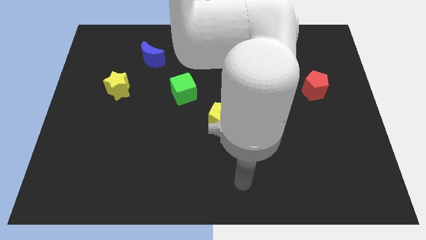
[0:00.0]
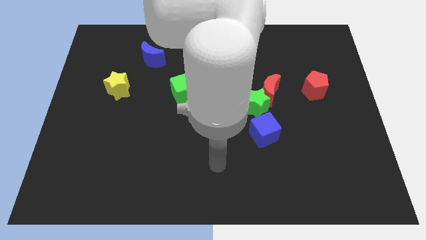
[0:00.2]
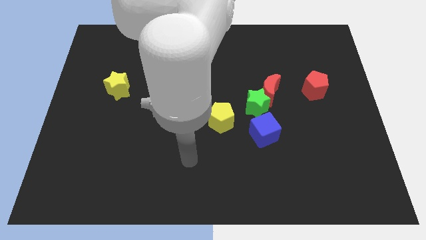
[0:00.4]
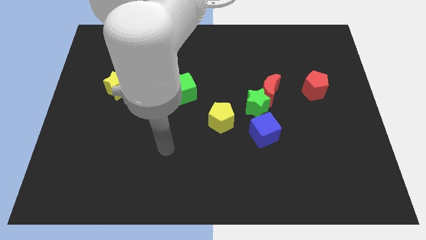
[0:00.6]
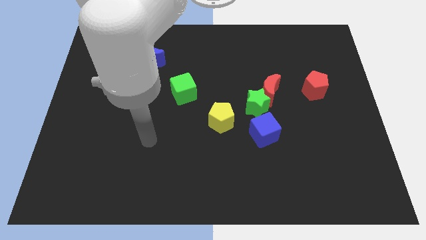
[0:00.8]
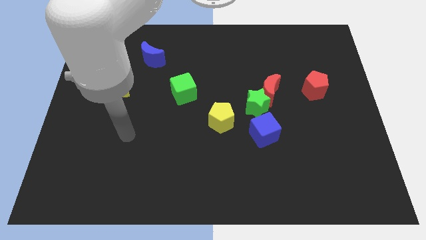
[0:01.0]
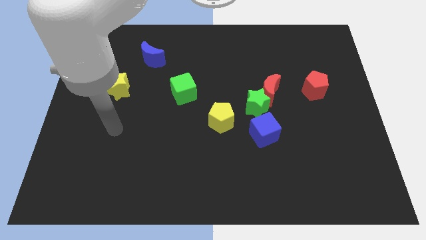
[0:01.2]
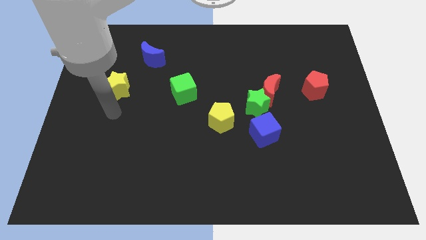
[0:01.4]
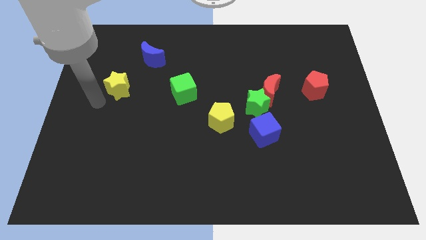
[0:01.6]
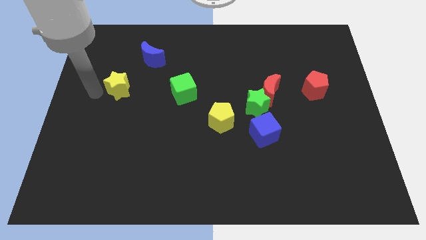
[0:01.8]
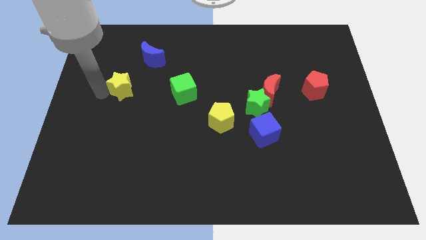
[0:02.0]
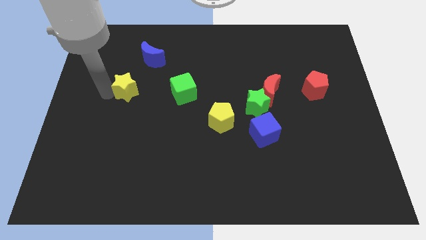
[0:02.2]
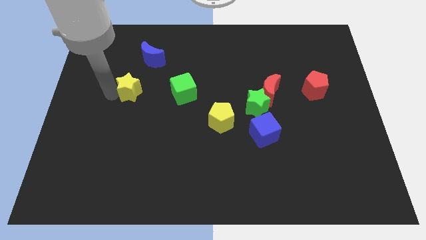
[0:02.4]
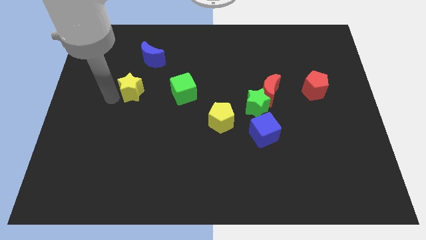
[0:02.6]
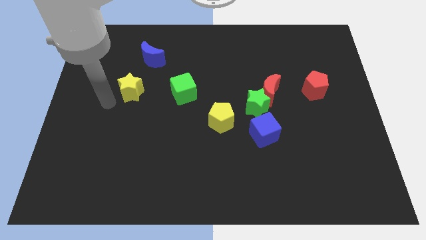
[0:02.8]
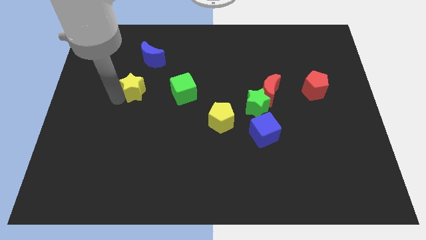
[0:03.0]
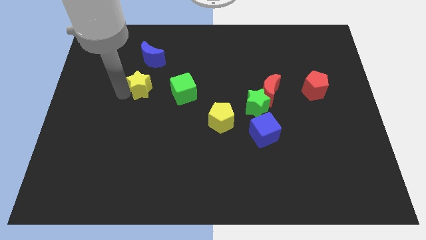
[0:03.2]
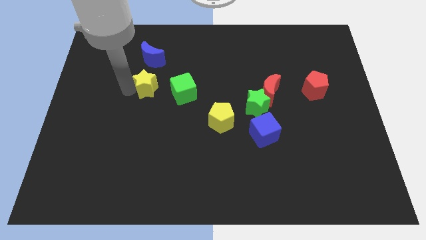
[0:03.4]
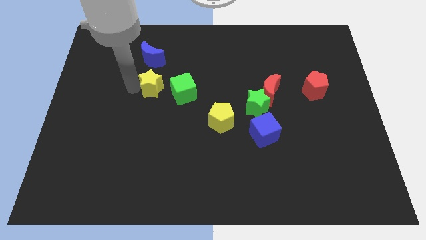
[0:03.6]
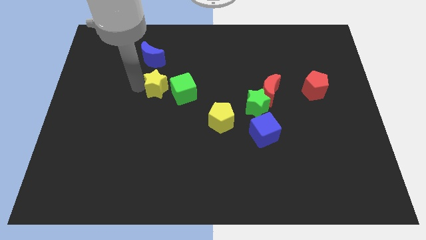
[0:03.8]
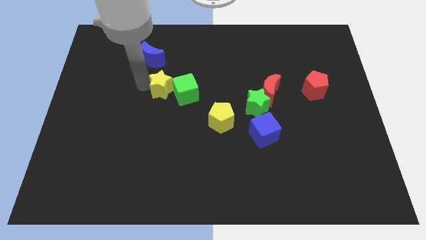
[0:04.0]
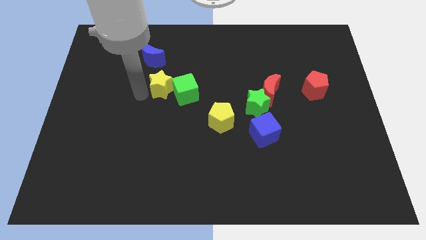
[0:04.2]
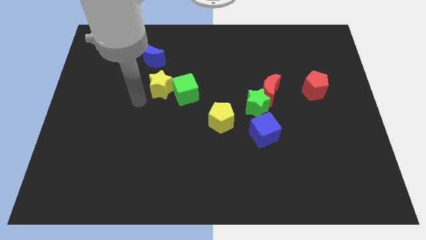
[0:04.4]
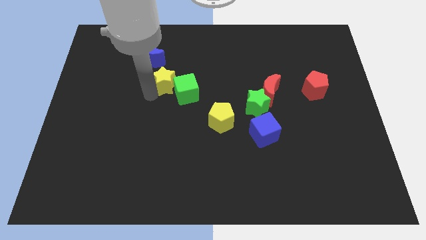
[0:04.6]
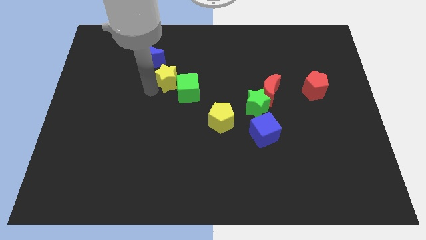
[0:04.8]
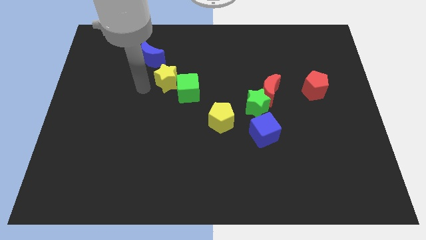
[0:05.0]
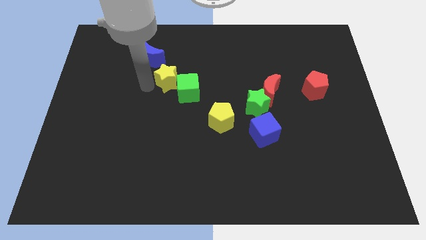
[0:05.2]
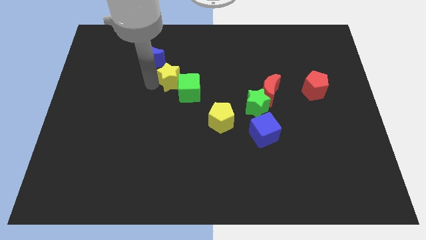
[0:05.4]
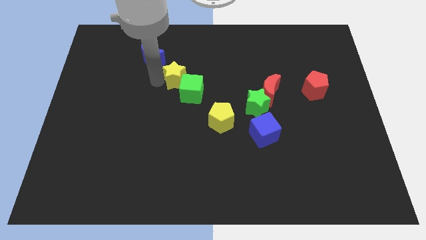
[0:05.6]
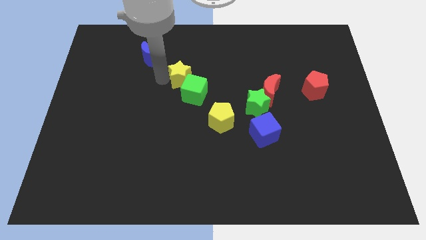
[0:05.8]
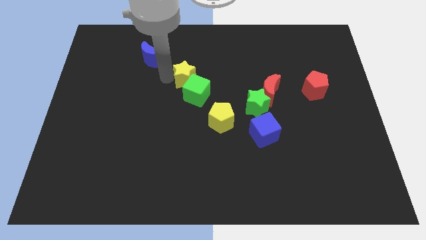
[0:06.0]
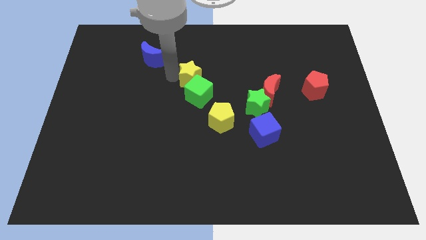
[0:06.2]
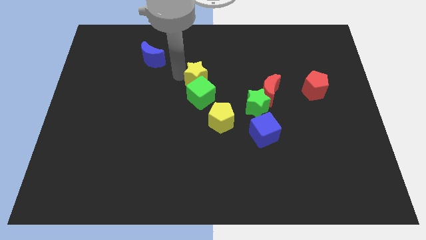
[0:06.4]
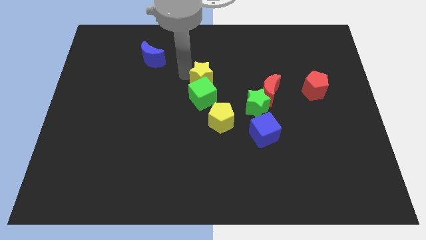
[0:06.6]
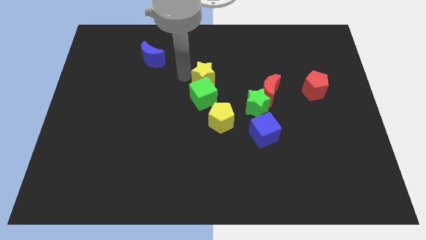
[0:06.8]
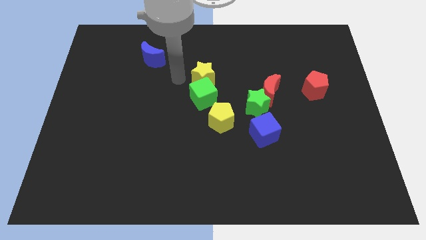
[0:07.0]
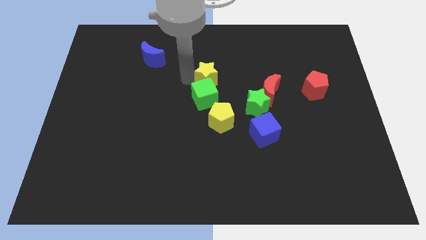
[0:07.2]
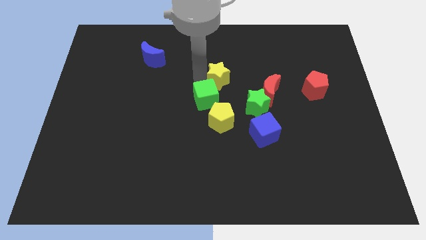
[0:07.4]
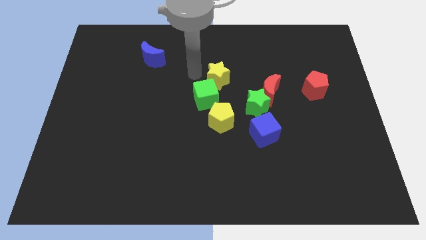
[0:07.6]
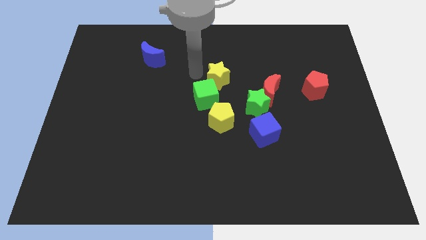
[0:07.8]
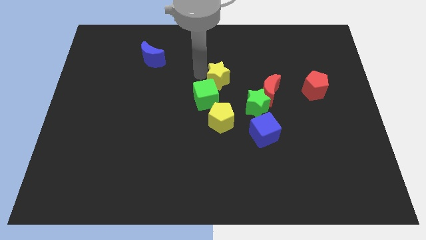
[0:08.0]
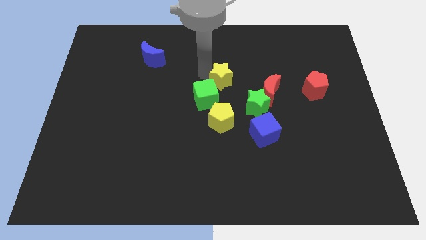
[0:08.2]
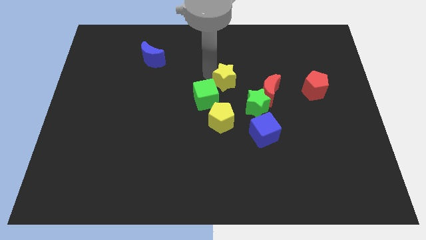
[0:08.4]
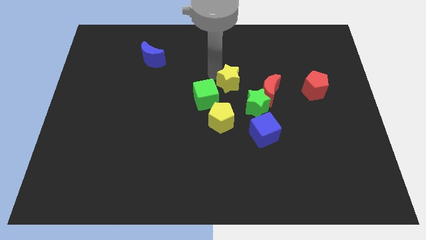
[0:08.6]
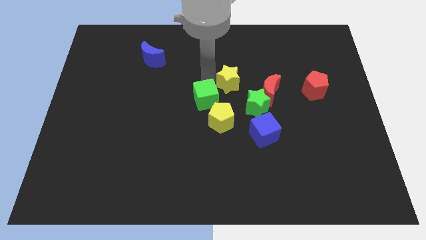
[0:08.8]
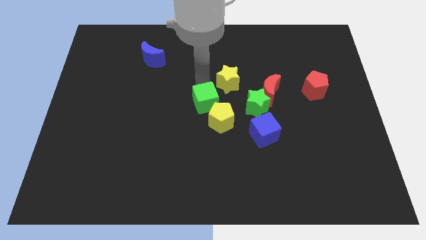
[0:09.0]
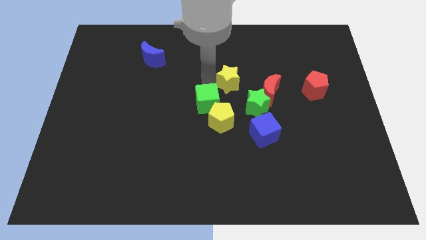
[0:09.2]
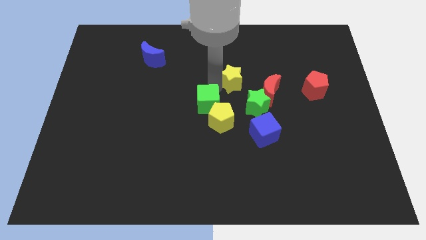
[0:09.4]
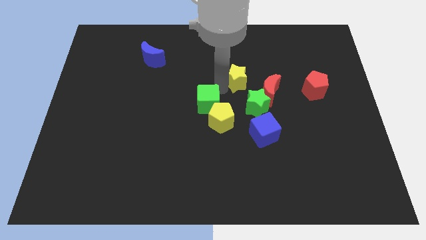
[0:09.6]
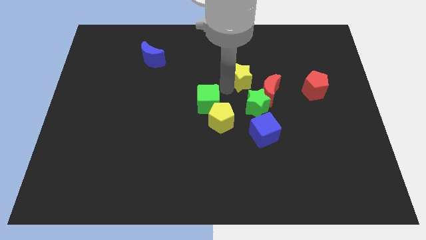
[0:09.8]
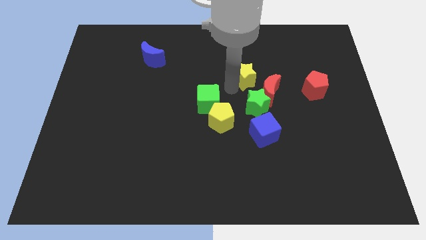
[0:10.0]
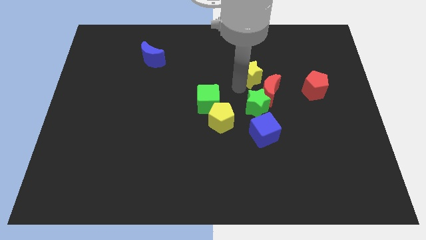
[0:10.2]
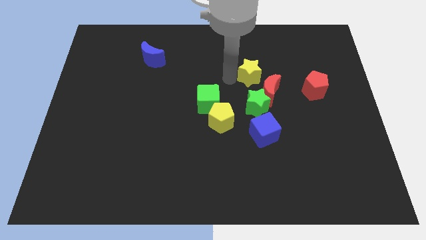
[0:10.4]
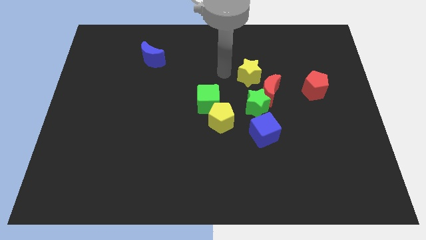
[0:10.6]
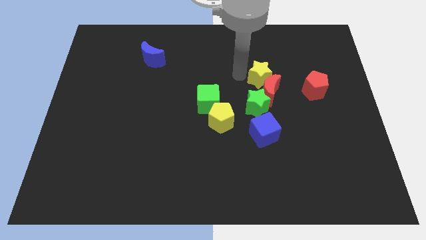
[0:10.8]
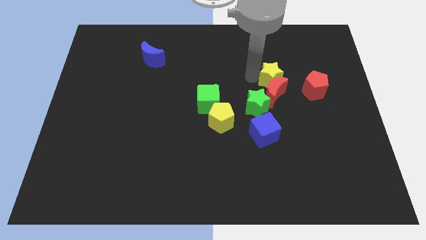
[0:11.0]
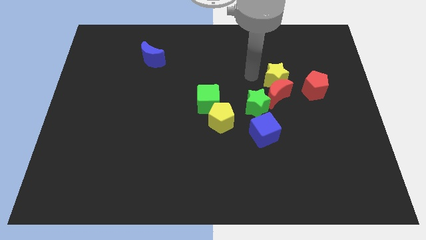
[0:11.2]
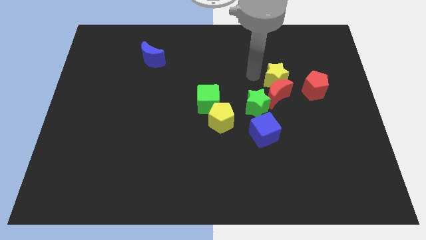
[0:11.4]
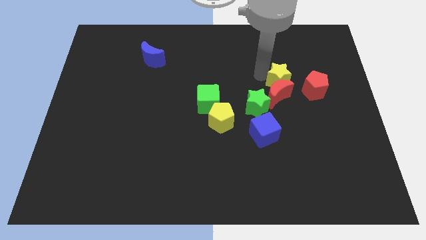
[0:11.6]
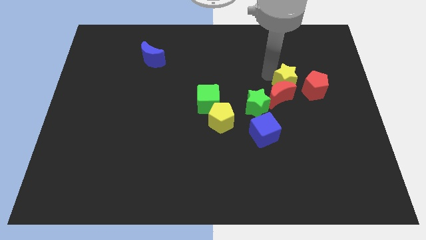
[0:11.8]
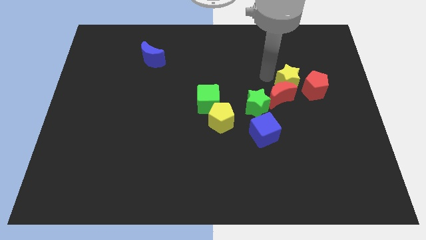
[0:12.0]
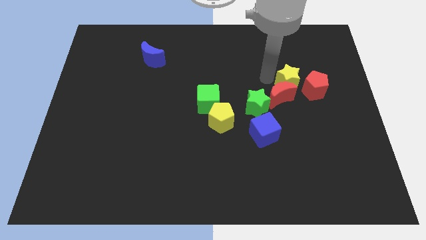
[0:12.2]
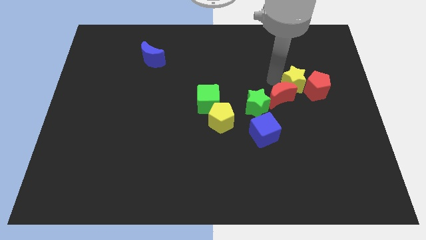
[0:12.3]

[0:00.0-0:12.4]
push the yellow star to the red pentagon
